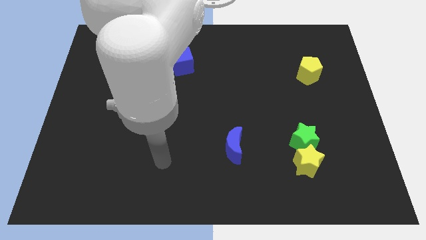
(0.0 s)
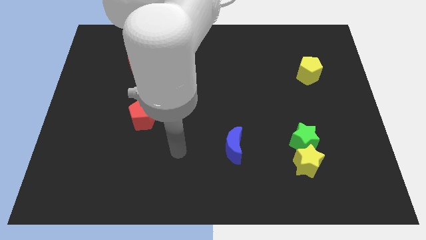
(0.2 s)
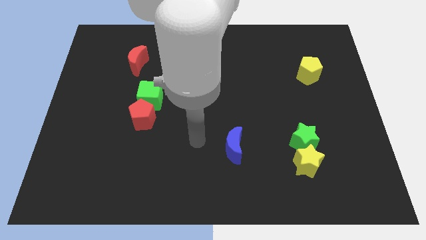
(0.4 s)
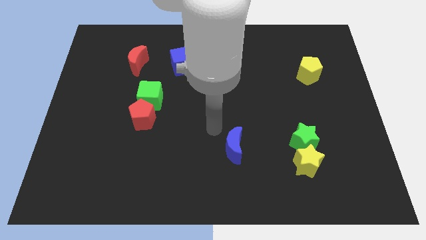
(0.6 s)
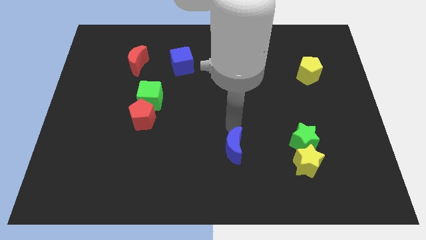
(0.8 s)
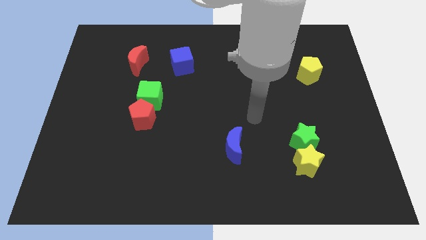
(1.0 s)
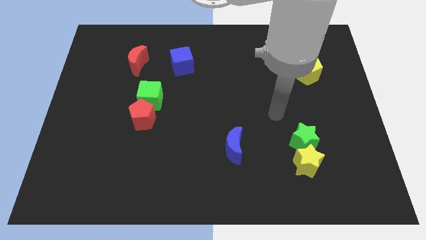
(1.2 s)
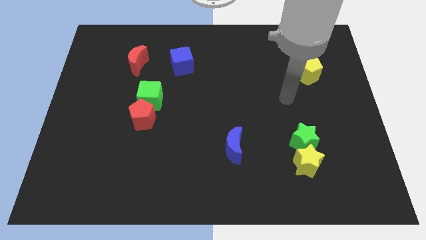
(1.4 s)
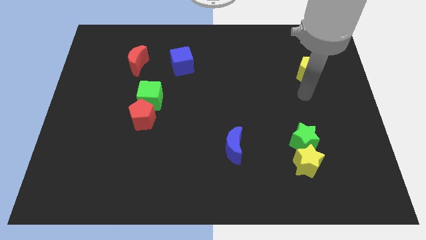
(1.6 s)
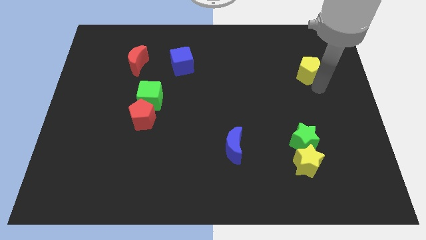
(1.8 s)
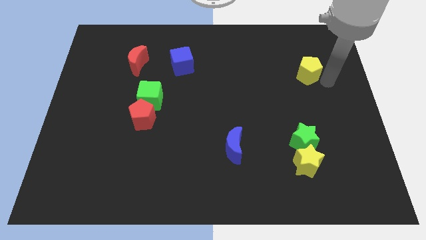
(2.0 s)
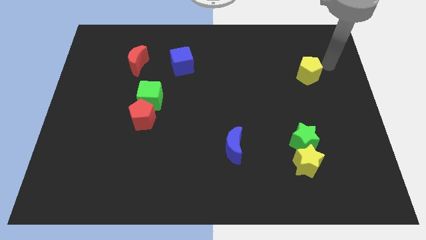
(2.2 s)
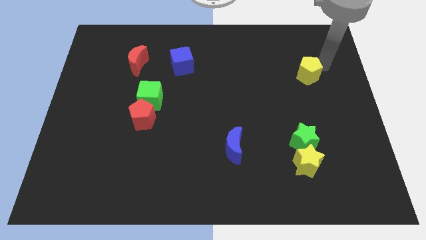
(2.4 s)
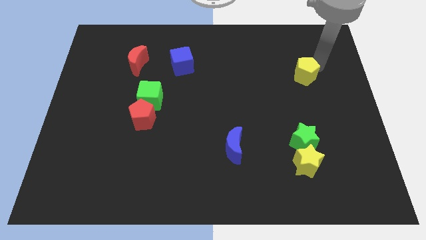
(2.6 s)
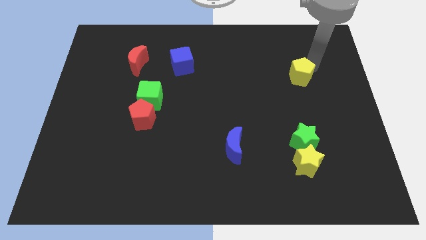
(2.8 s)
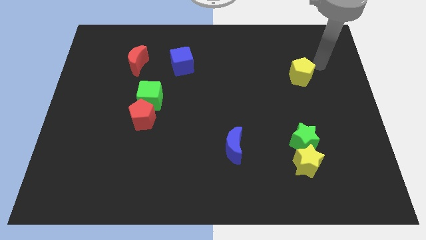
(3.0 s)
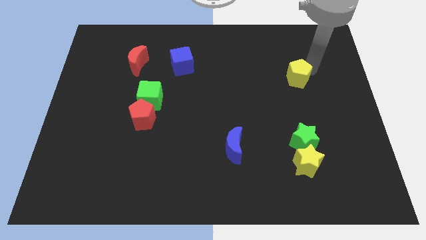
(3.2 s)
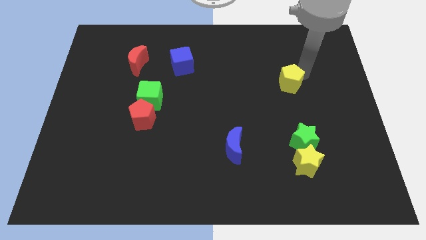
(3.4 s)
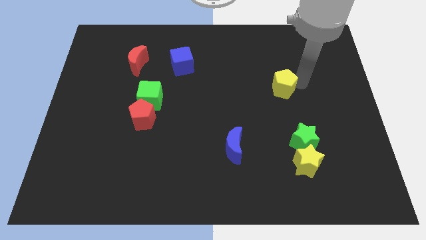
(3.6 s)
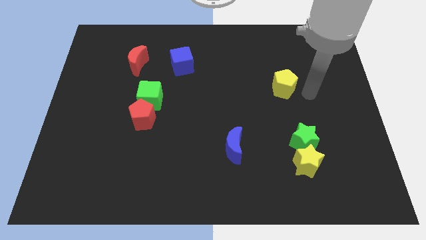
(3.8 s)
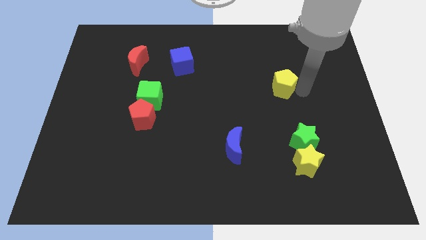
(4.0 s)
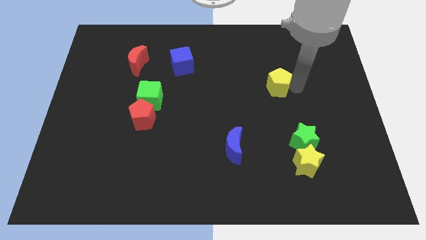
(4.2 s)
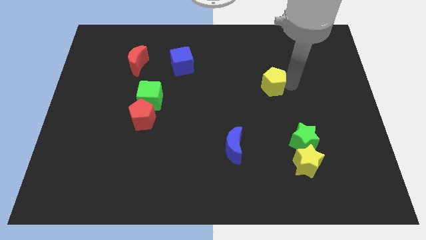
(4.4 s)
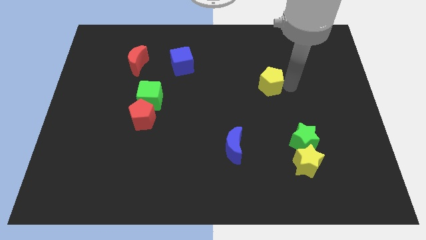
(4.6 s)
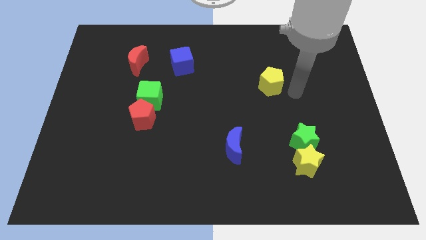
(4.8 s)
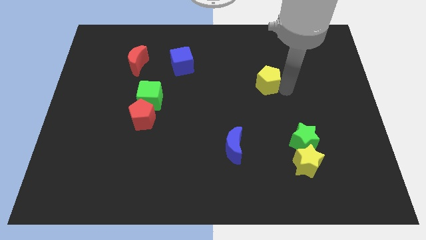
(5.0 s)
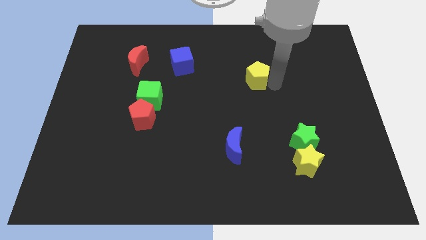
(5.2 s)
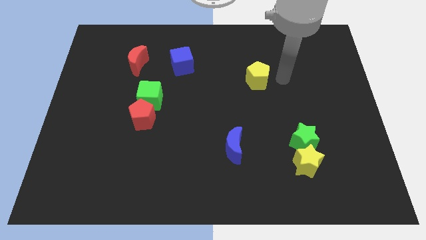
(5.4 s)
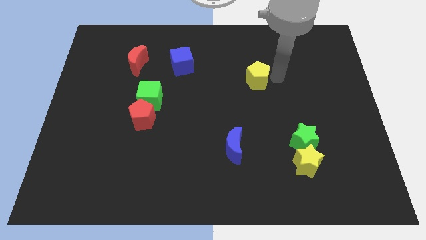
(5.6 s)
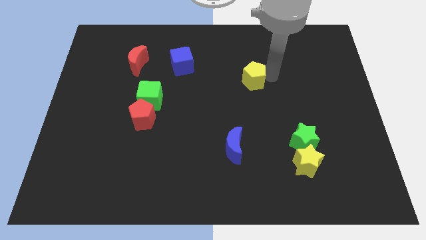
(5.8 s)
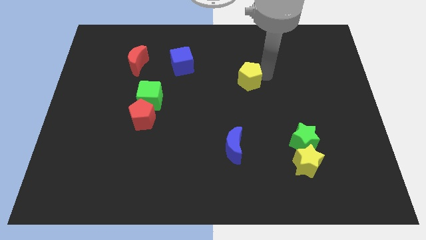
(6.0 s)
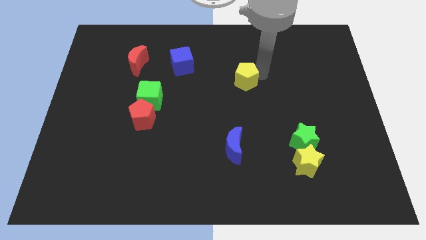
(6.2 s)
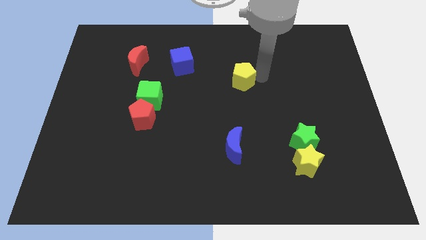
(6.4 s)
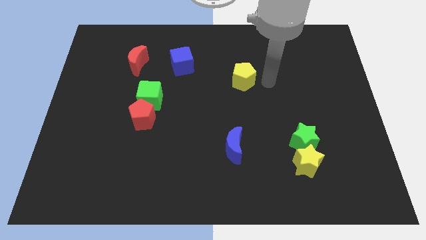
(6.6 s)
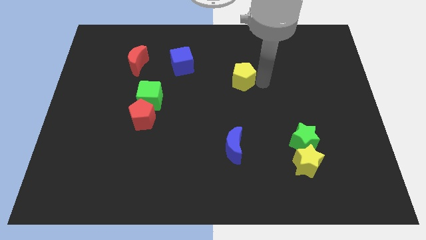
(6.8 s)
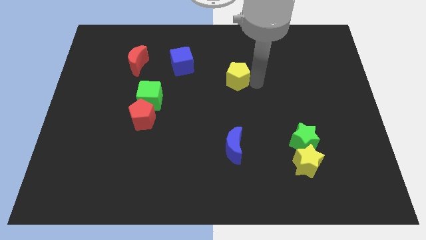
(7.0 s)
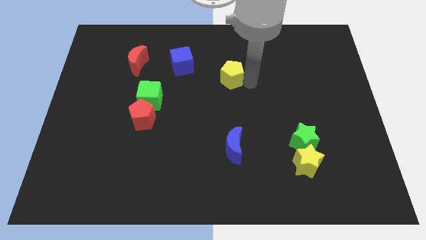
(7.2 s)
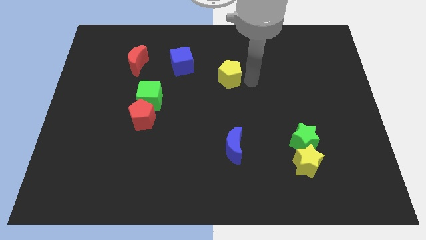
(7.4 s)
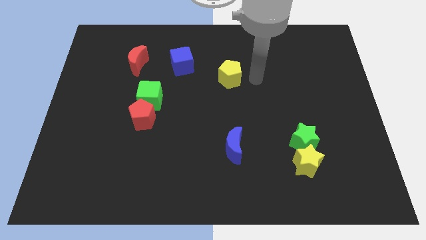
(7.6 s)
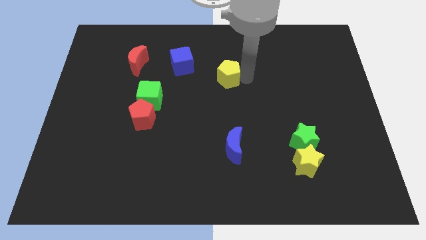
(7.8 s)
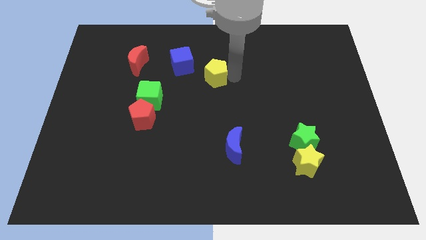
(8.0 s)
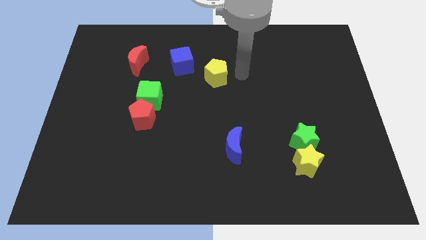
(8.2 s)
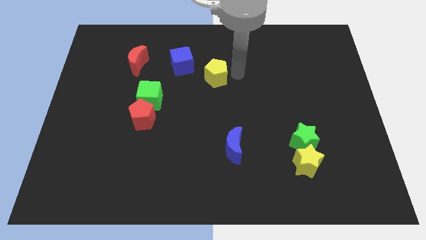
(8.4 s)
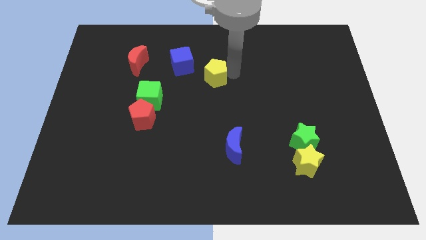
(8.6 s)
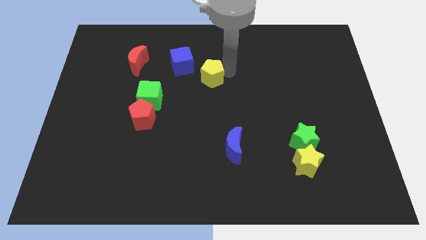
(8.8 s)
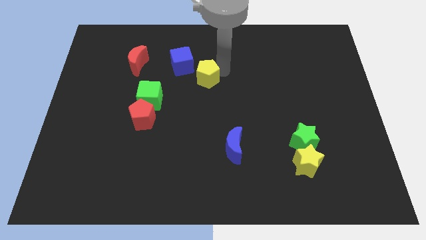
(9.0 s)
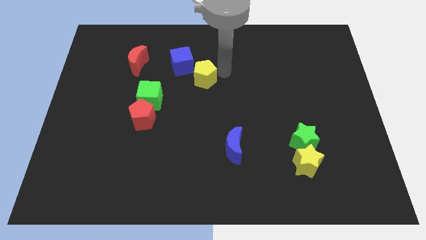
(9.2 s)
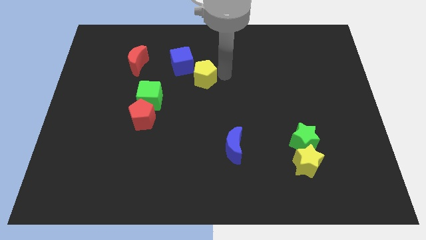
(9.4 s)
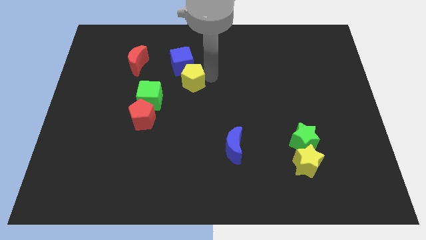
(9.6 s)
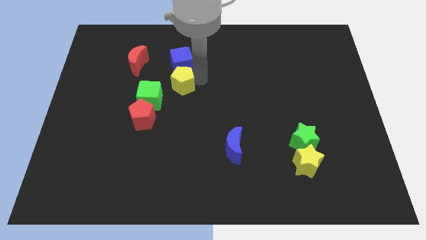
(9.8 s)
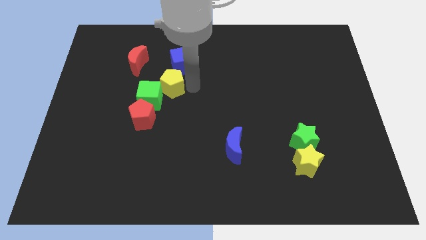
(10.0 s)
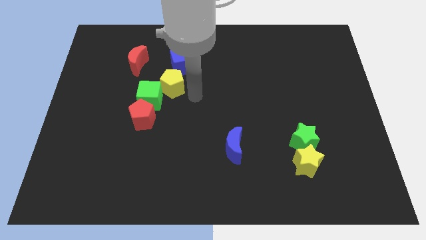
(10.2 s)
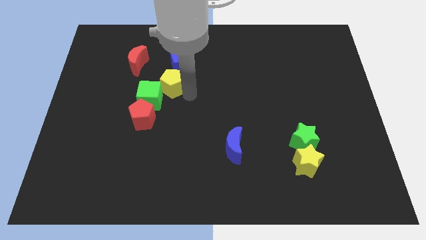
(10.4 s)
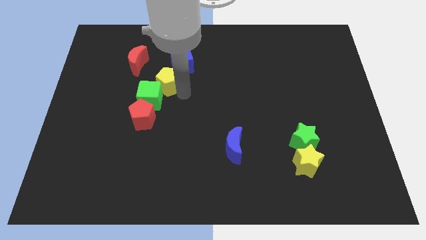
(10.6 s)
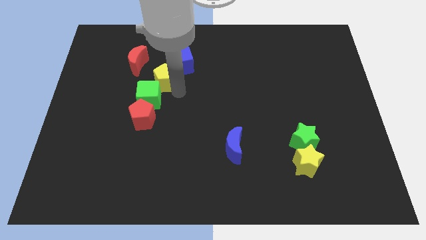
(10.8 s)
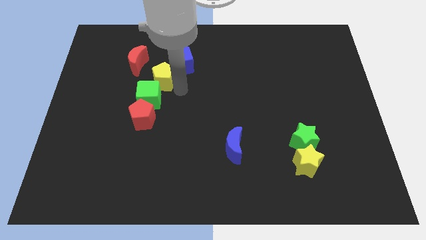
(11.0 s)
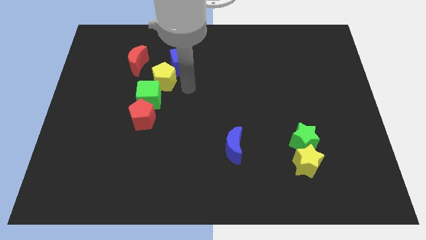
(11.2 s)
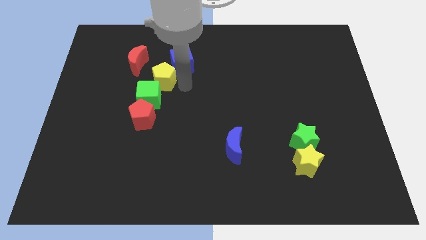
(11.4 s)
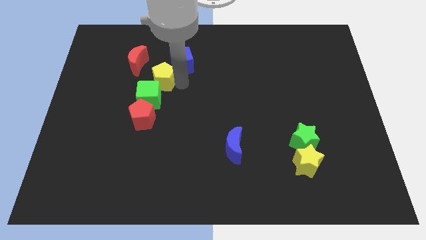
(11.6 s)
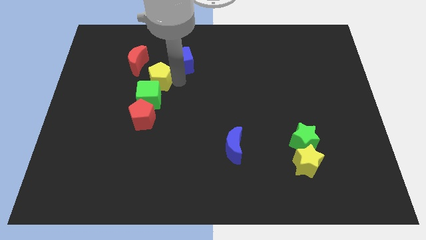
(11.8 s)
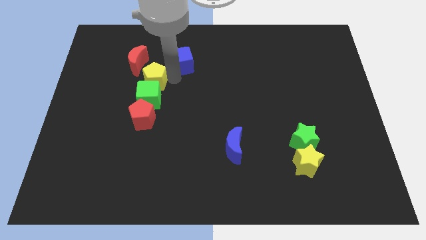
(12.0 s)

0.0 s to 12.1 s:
push the yellow pentagon to the top left side of the green cube

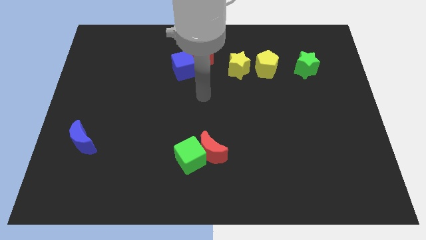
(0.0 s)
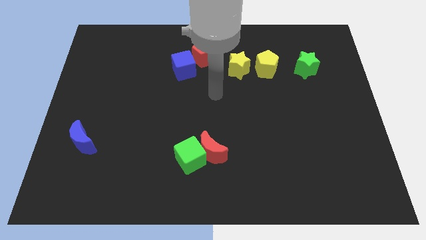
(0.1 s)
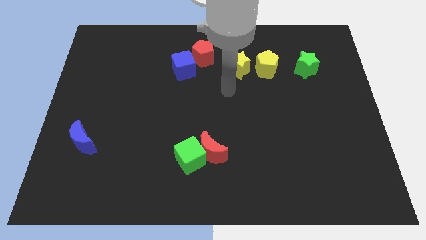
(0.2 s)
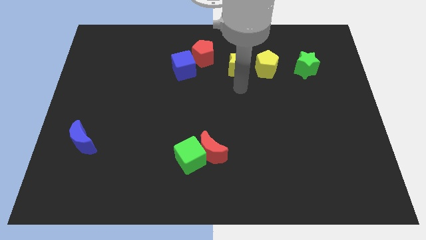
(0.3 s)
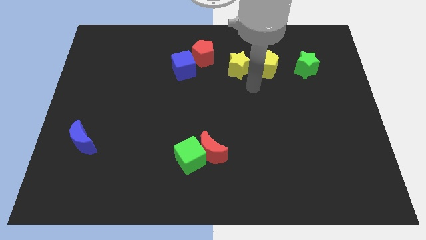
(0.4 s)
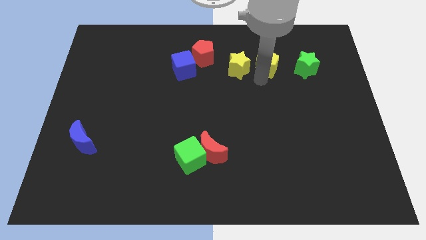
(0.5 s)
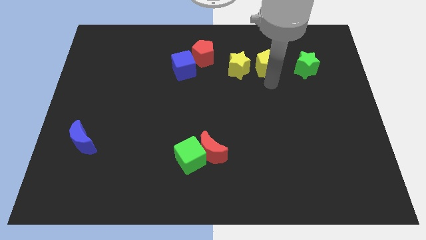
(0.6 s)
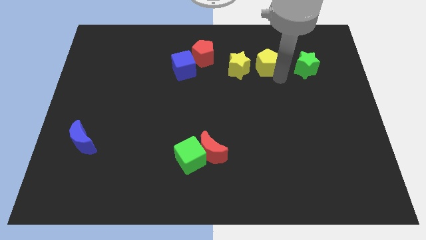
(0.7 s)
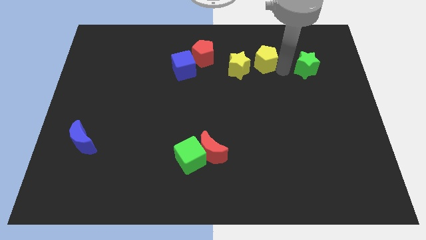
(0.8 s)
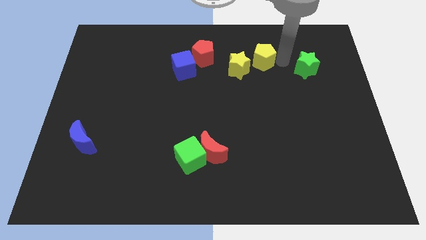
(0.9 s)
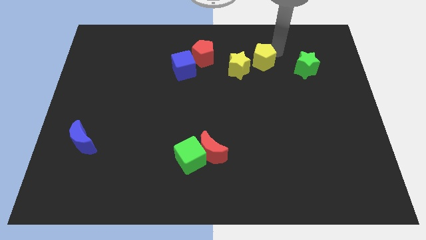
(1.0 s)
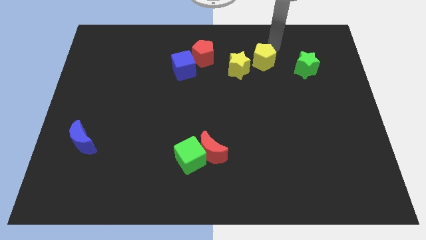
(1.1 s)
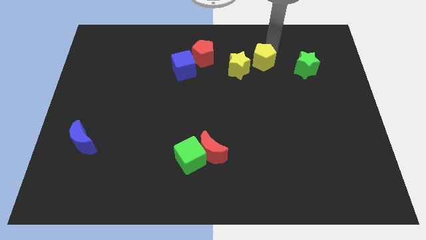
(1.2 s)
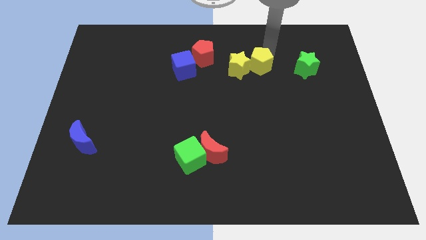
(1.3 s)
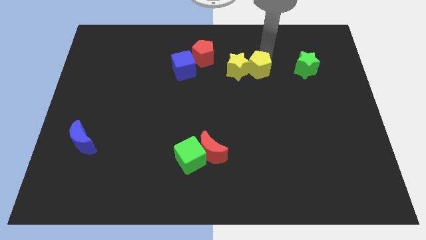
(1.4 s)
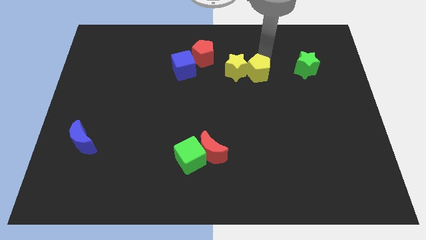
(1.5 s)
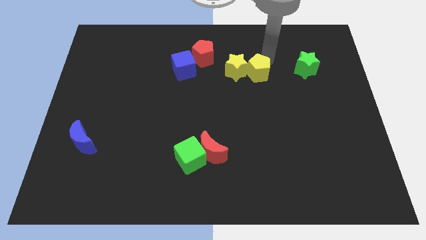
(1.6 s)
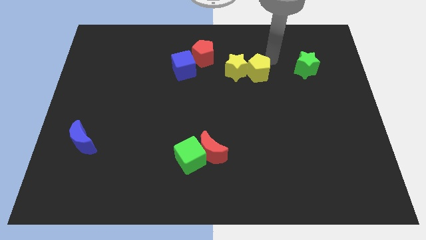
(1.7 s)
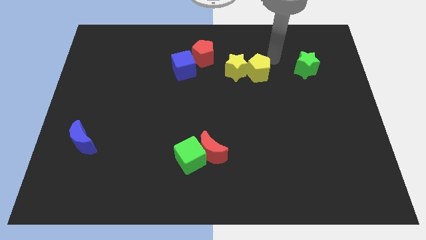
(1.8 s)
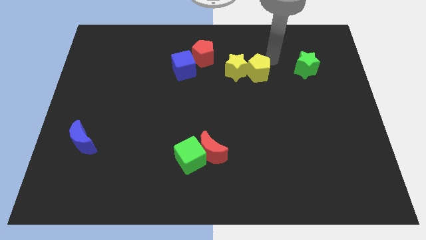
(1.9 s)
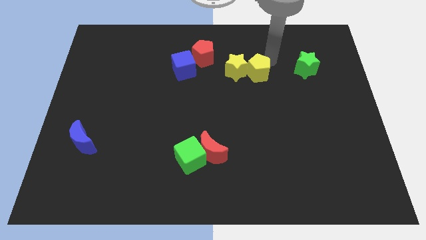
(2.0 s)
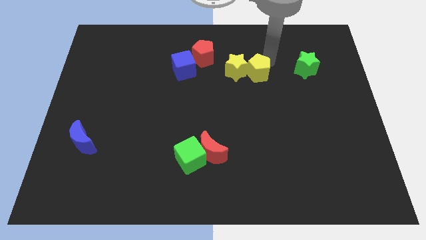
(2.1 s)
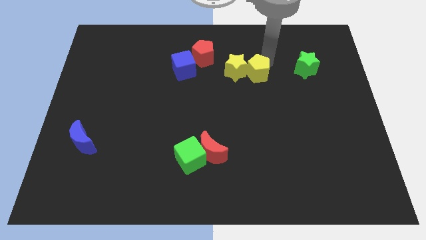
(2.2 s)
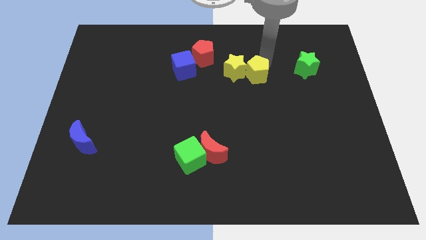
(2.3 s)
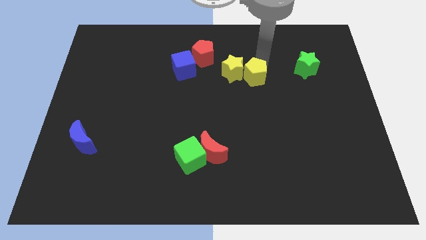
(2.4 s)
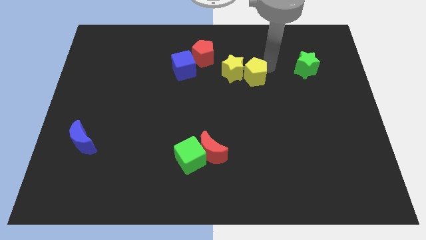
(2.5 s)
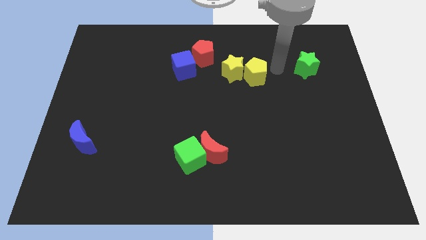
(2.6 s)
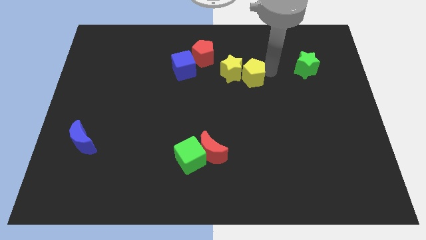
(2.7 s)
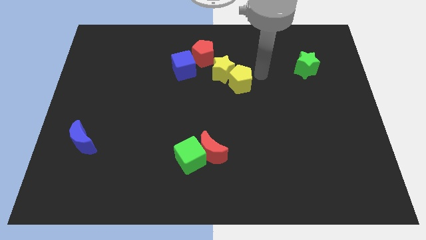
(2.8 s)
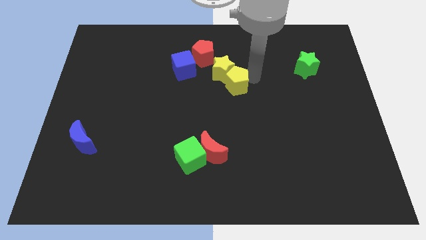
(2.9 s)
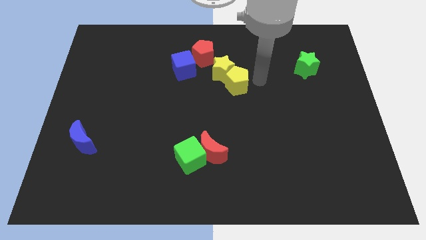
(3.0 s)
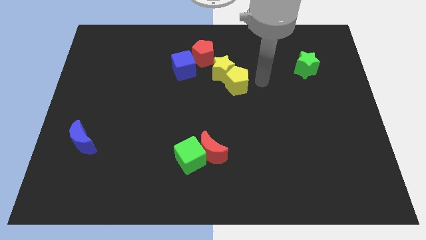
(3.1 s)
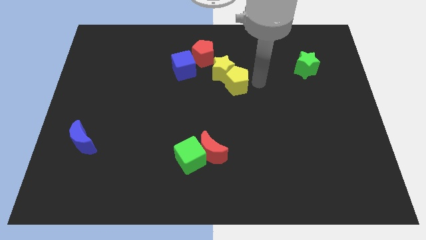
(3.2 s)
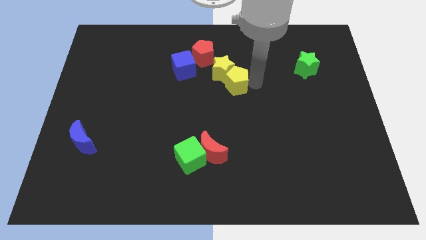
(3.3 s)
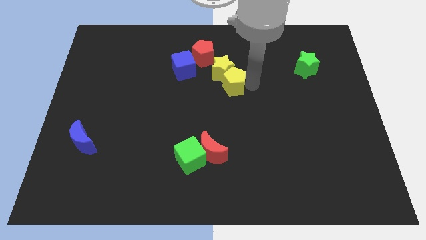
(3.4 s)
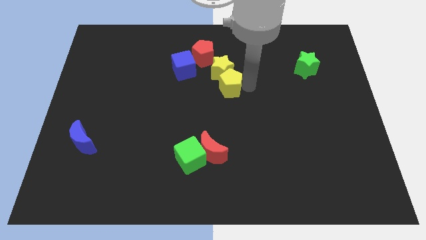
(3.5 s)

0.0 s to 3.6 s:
move the yellow pentagon to the bottom left of the yellow star
